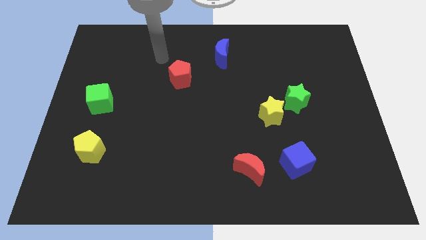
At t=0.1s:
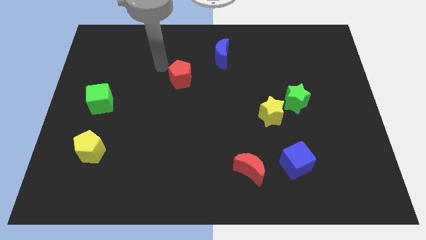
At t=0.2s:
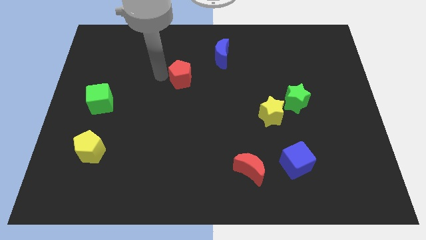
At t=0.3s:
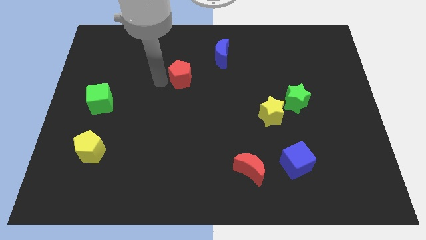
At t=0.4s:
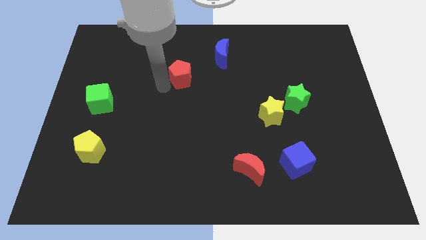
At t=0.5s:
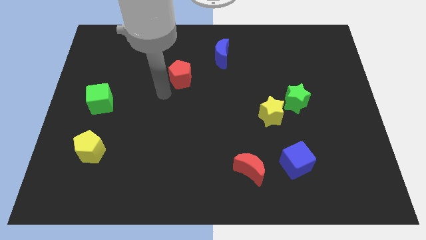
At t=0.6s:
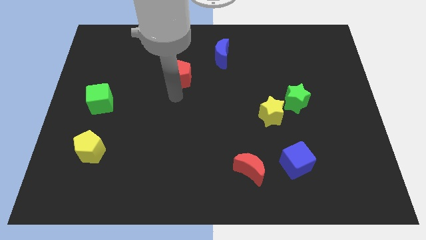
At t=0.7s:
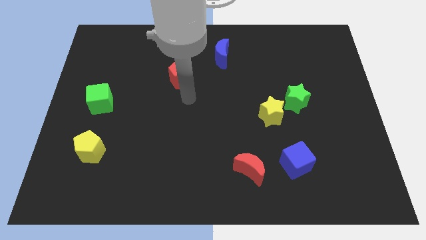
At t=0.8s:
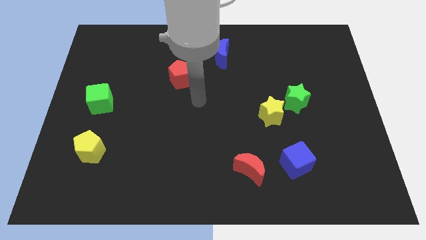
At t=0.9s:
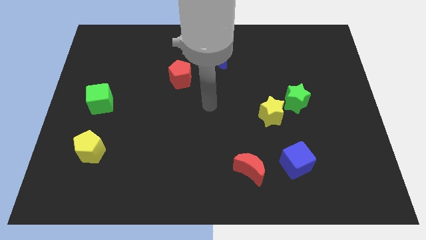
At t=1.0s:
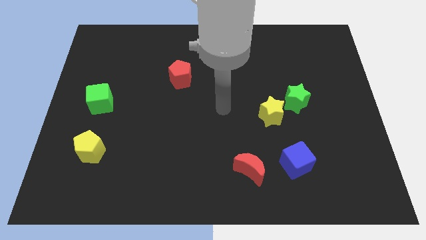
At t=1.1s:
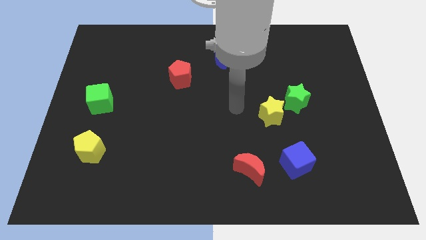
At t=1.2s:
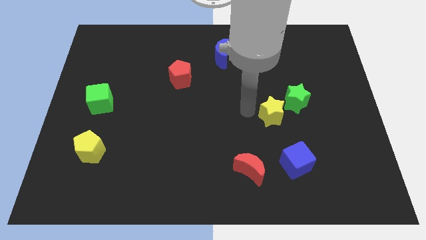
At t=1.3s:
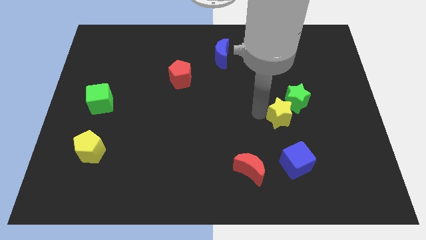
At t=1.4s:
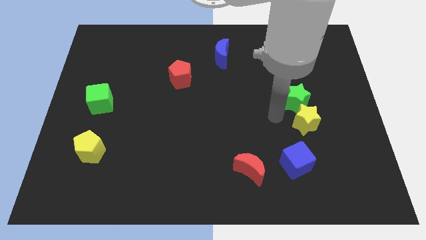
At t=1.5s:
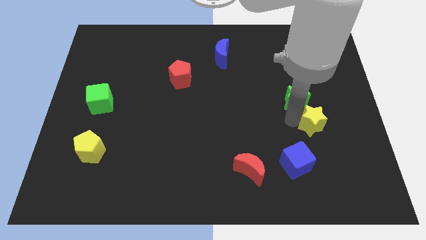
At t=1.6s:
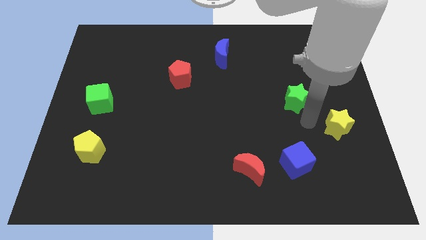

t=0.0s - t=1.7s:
pull the green star apart from the yellow star

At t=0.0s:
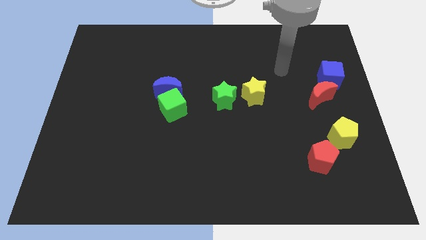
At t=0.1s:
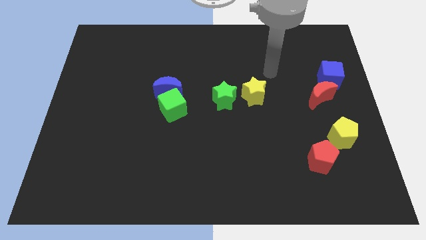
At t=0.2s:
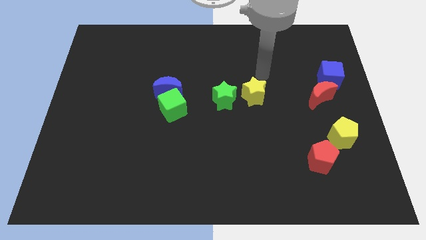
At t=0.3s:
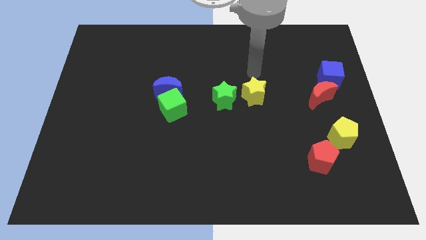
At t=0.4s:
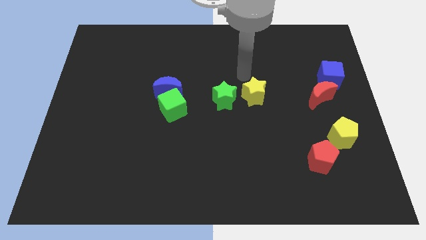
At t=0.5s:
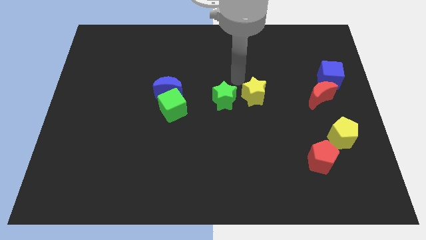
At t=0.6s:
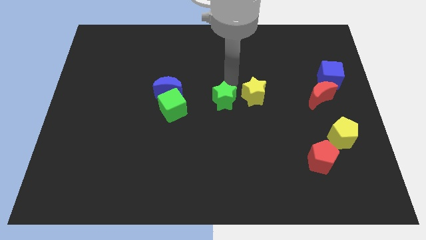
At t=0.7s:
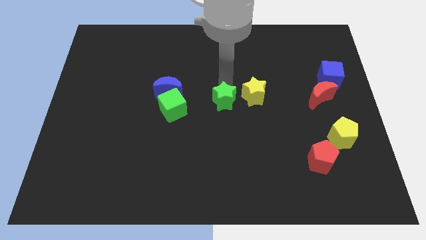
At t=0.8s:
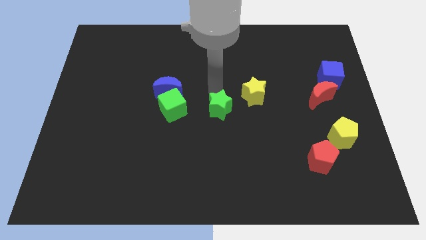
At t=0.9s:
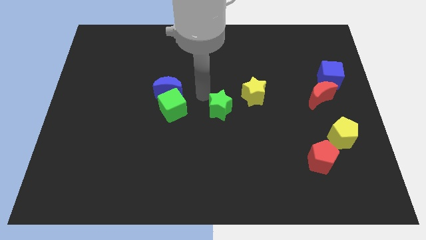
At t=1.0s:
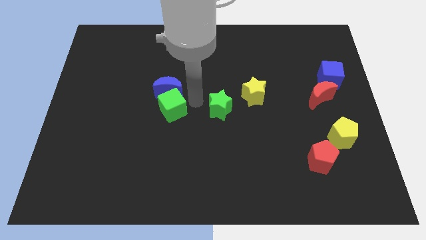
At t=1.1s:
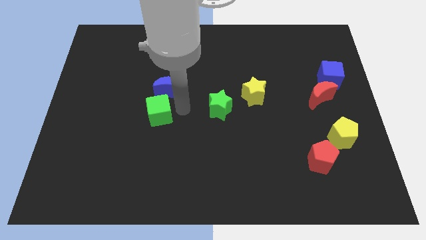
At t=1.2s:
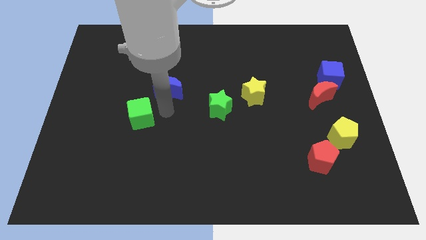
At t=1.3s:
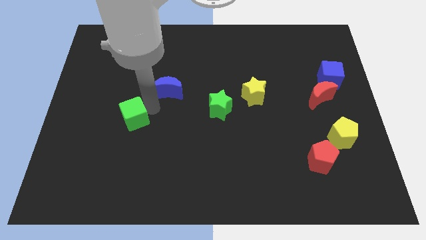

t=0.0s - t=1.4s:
pull the blue moon apart from the green cube

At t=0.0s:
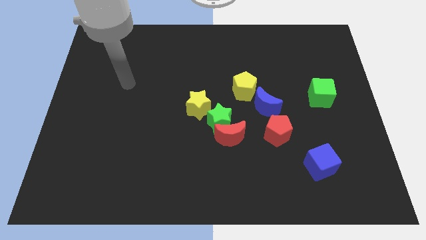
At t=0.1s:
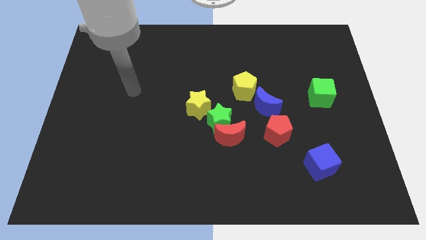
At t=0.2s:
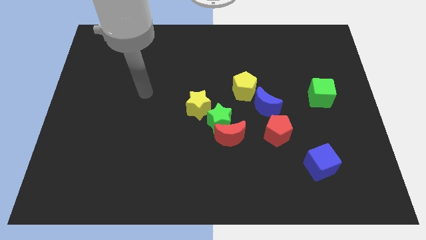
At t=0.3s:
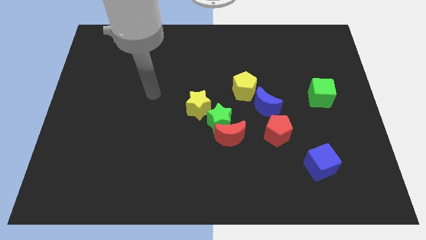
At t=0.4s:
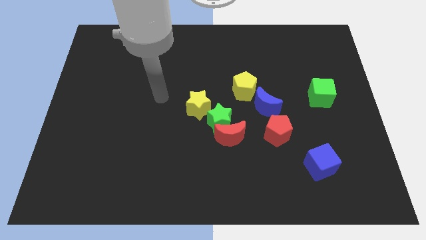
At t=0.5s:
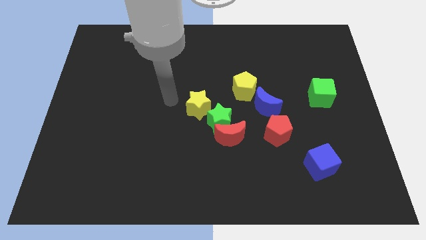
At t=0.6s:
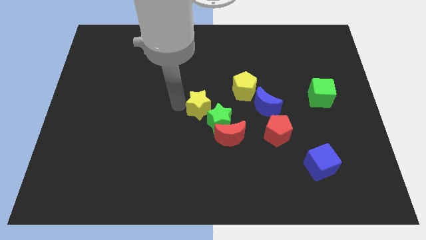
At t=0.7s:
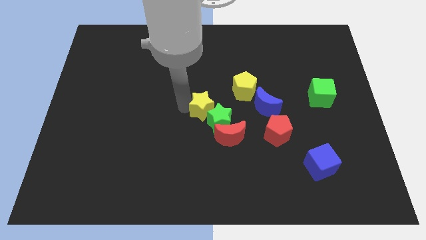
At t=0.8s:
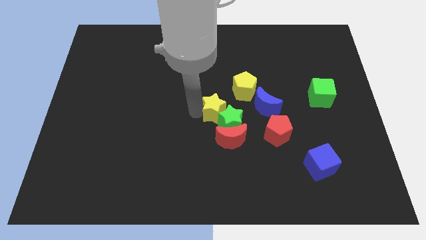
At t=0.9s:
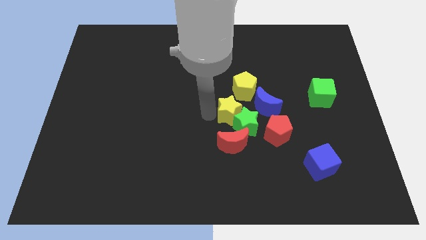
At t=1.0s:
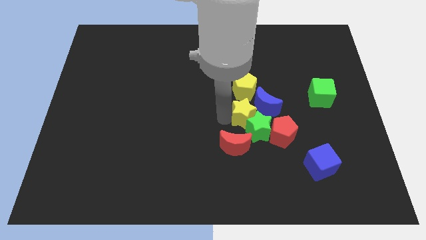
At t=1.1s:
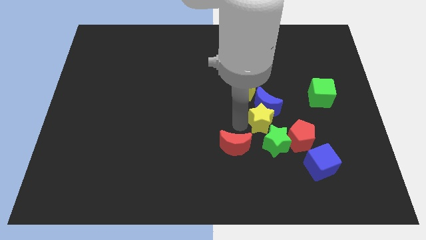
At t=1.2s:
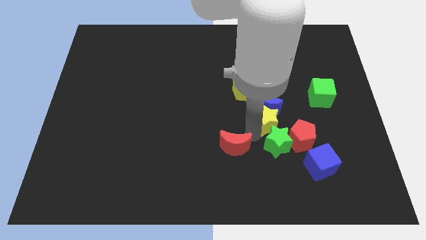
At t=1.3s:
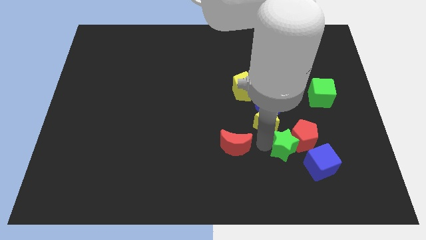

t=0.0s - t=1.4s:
move the red moon away from the green star

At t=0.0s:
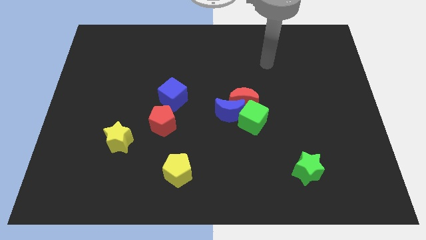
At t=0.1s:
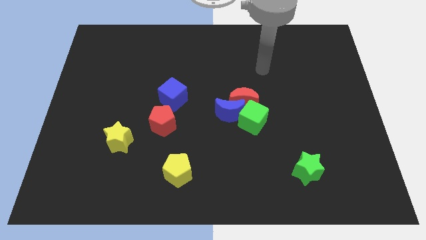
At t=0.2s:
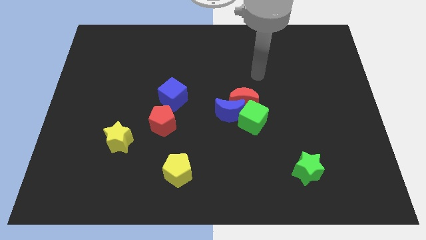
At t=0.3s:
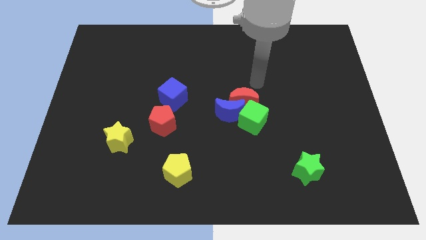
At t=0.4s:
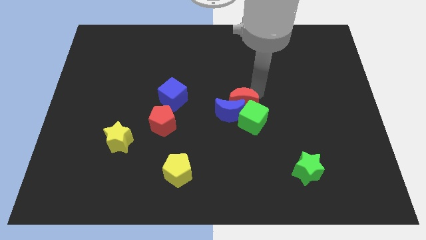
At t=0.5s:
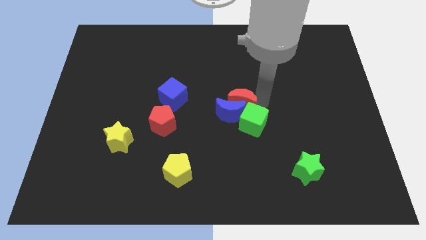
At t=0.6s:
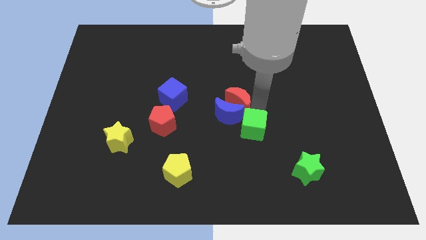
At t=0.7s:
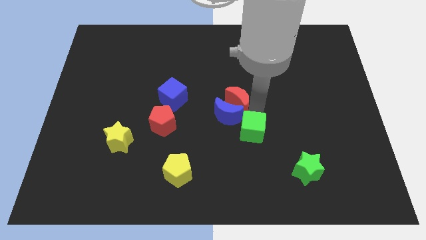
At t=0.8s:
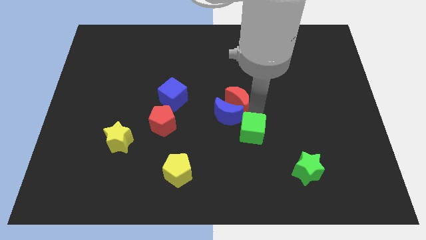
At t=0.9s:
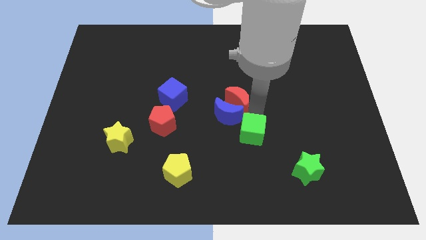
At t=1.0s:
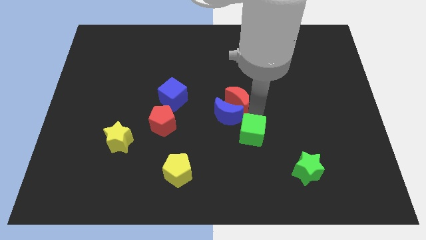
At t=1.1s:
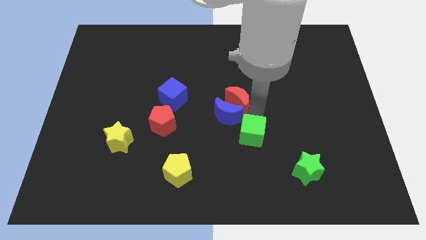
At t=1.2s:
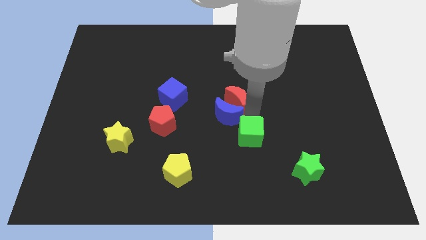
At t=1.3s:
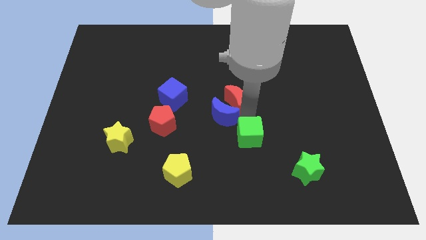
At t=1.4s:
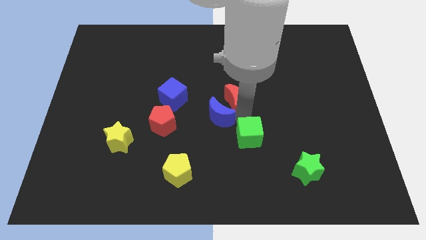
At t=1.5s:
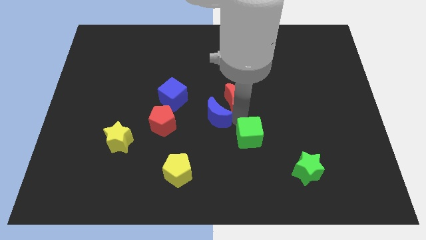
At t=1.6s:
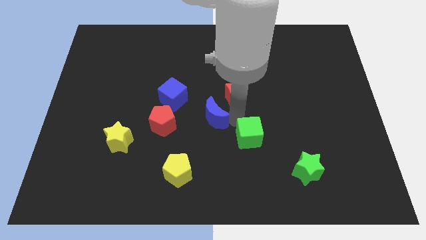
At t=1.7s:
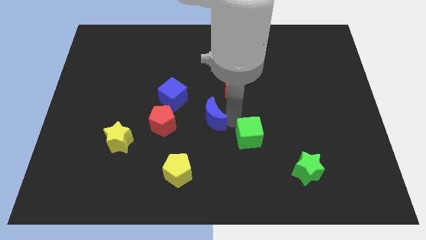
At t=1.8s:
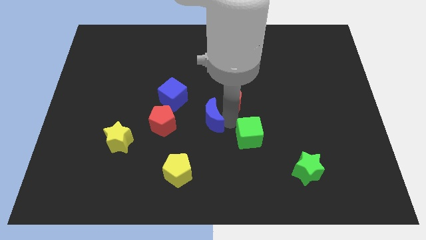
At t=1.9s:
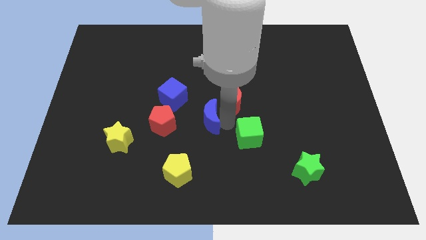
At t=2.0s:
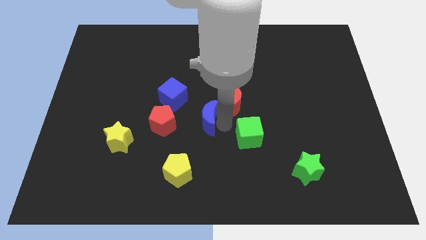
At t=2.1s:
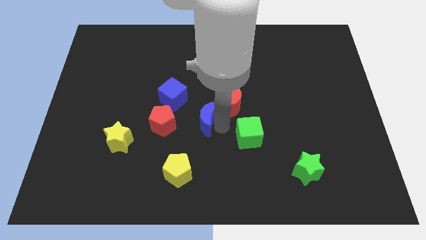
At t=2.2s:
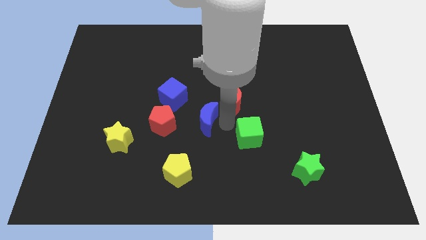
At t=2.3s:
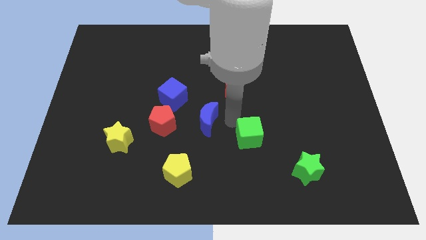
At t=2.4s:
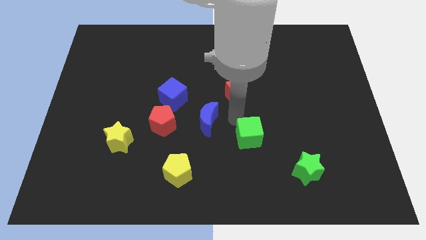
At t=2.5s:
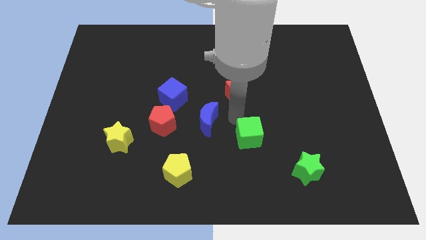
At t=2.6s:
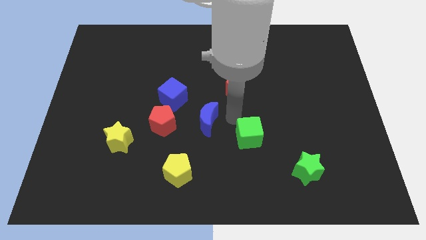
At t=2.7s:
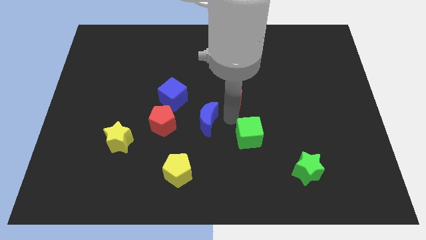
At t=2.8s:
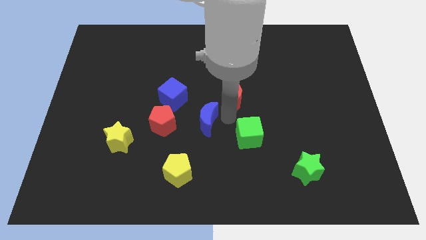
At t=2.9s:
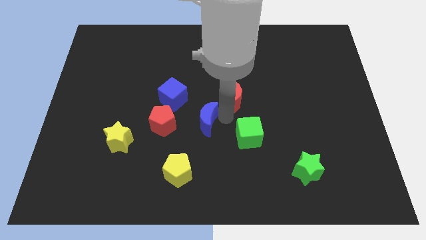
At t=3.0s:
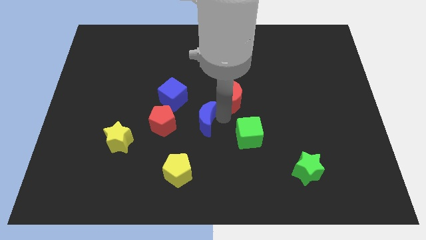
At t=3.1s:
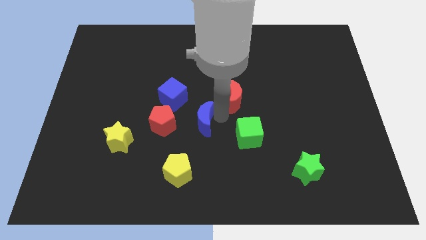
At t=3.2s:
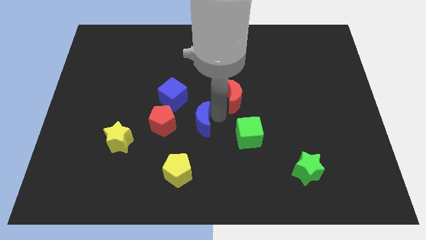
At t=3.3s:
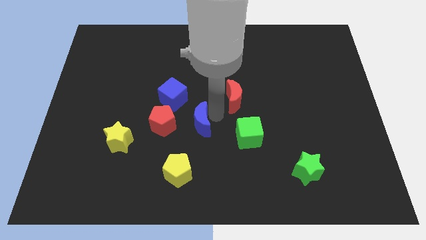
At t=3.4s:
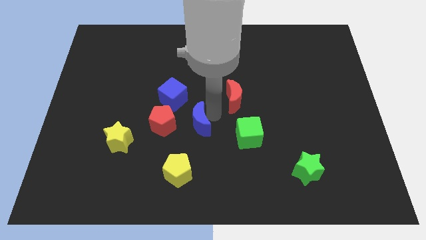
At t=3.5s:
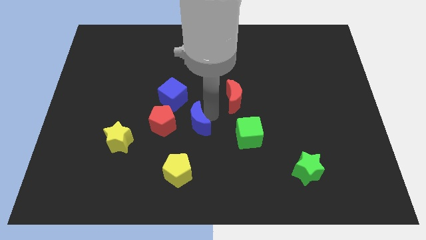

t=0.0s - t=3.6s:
move the blue moon away from the red moon and green cube

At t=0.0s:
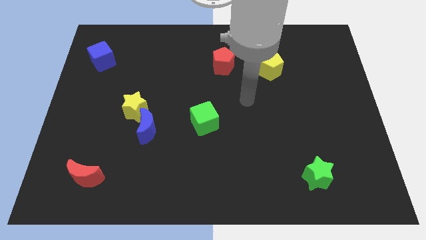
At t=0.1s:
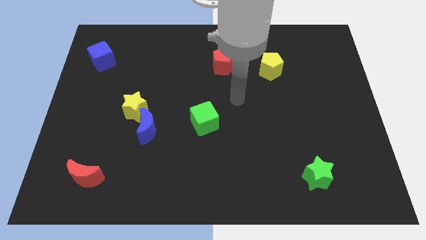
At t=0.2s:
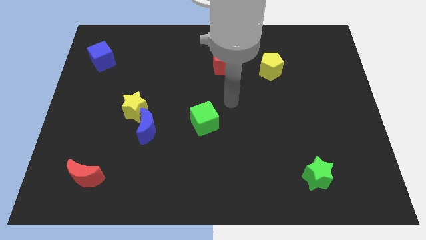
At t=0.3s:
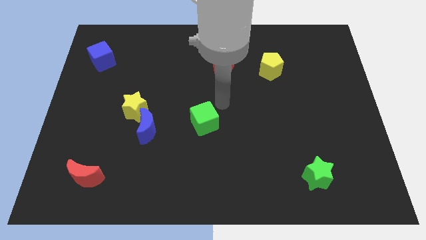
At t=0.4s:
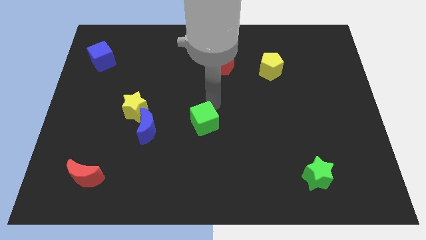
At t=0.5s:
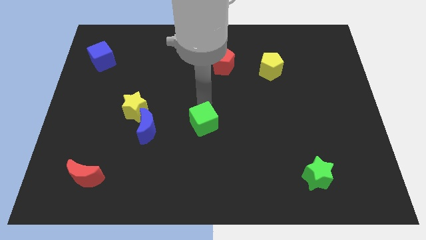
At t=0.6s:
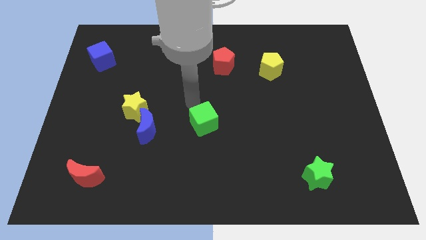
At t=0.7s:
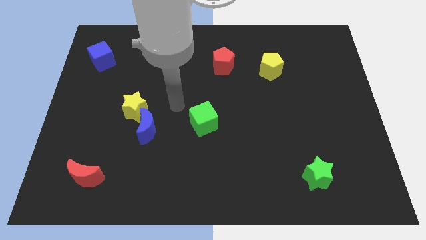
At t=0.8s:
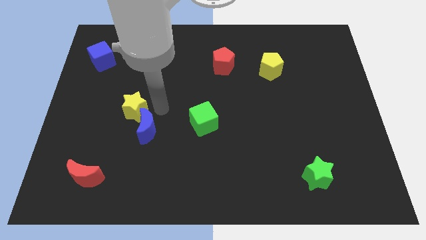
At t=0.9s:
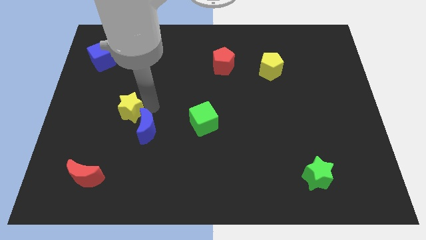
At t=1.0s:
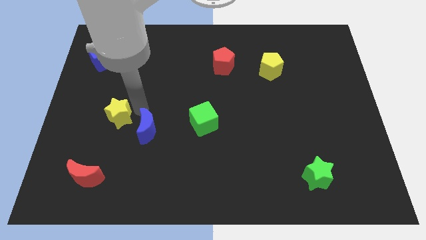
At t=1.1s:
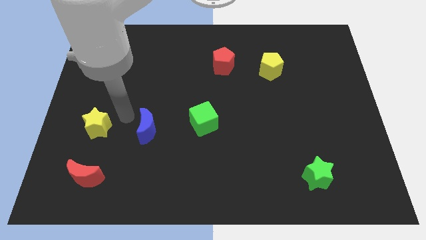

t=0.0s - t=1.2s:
move the blue moon away from the yellow star
